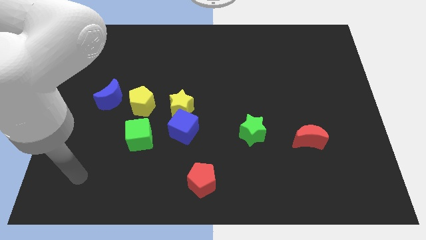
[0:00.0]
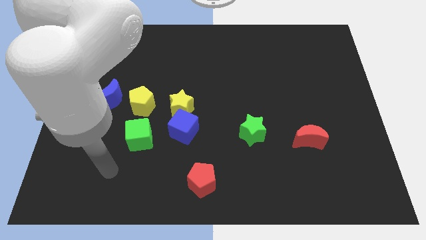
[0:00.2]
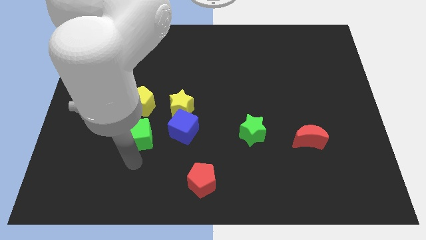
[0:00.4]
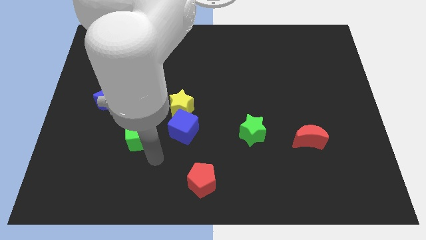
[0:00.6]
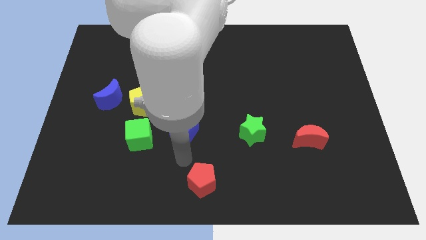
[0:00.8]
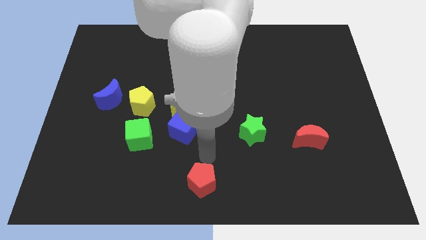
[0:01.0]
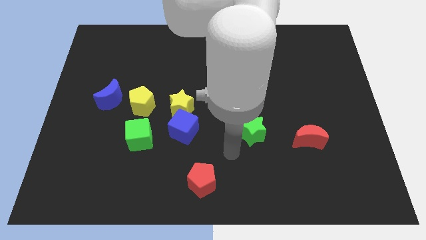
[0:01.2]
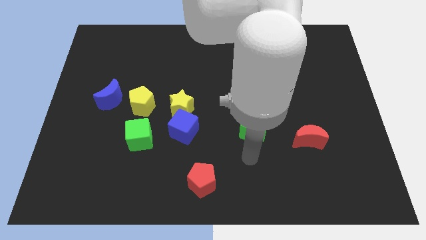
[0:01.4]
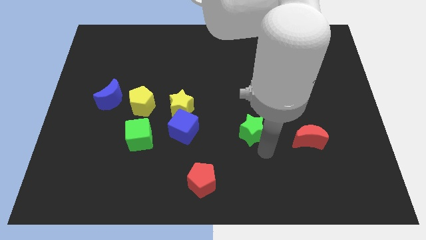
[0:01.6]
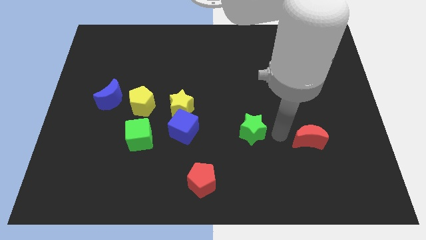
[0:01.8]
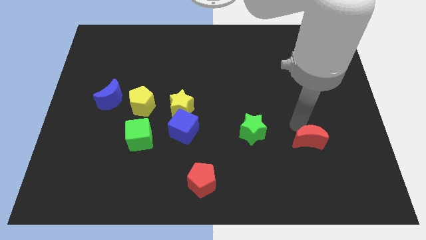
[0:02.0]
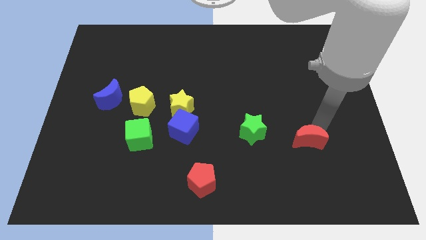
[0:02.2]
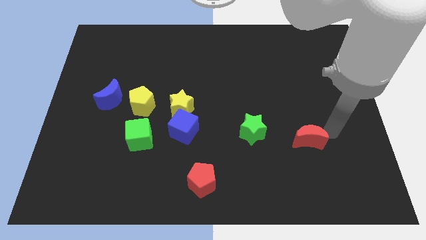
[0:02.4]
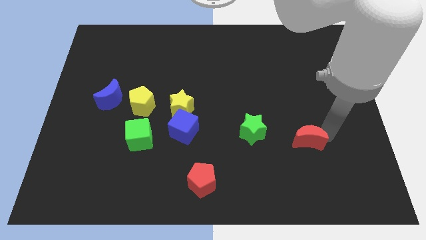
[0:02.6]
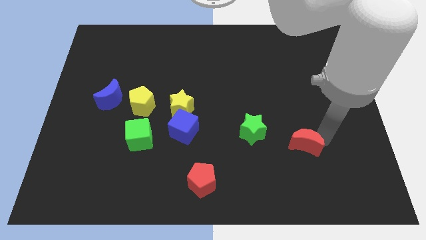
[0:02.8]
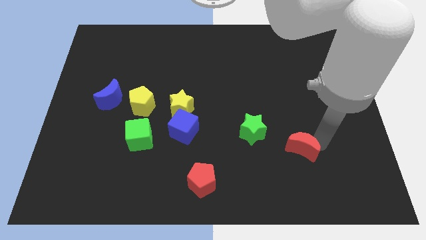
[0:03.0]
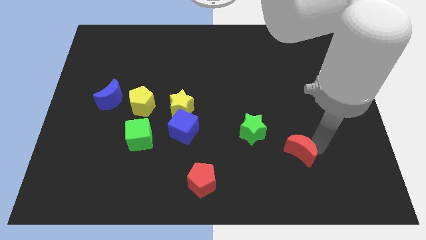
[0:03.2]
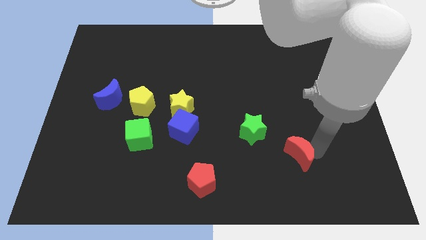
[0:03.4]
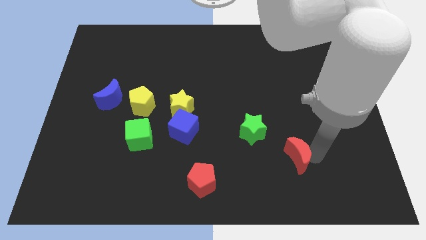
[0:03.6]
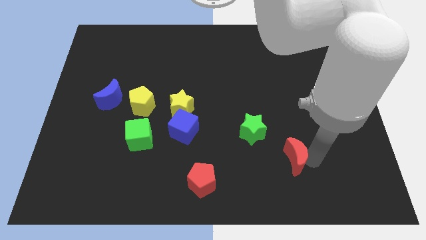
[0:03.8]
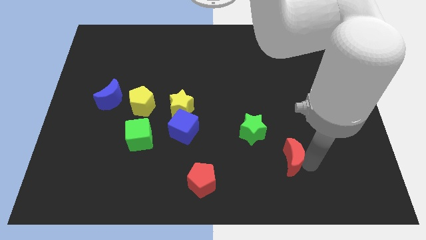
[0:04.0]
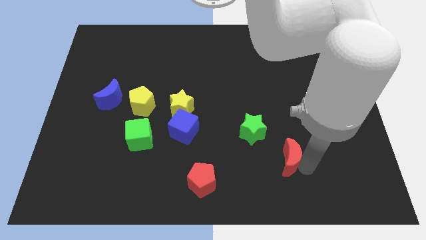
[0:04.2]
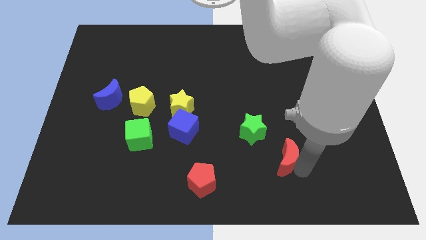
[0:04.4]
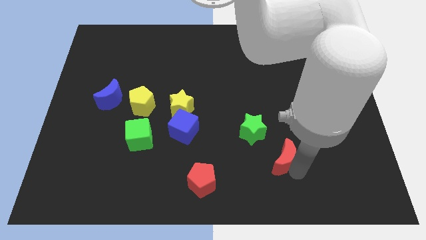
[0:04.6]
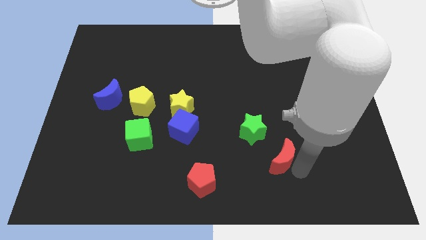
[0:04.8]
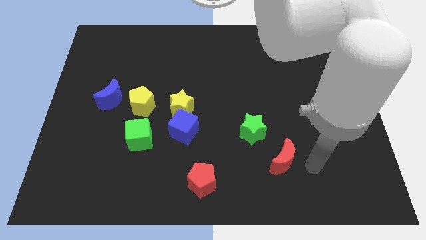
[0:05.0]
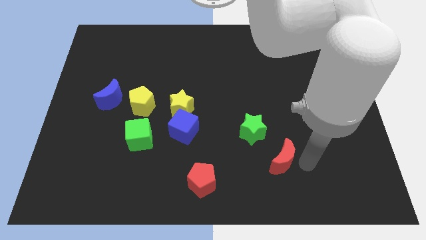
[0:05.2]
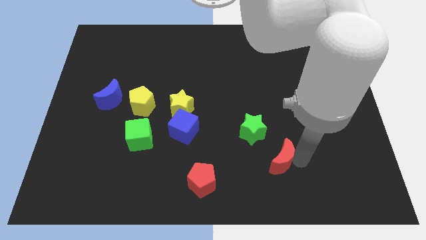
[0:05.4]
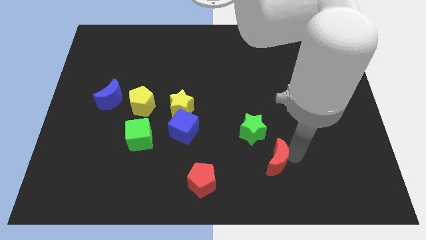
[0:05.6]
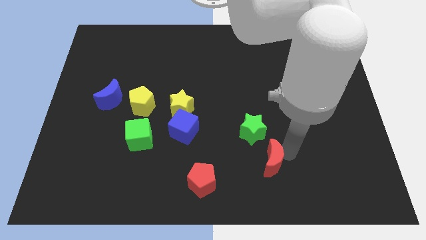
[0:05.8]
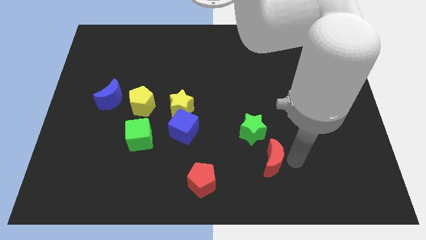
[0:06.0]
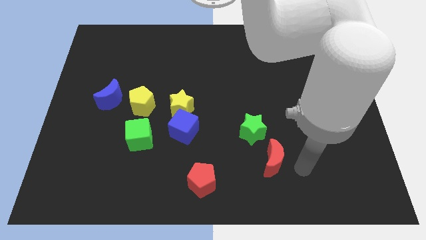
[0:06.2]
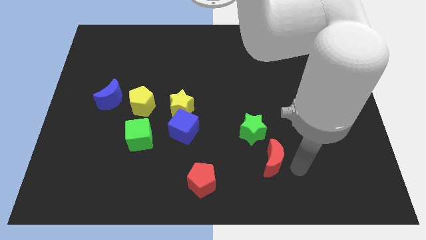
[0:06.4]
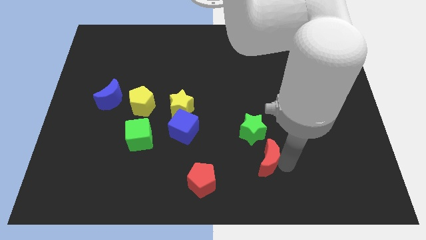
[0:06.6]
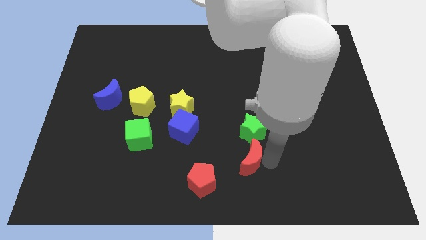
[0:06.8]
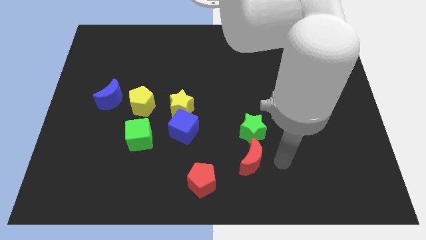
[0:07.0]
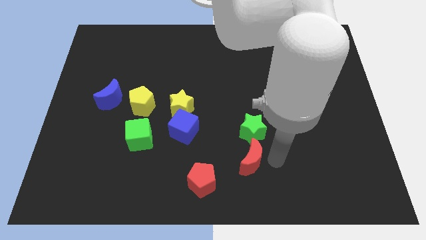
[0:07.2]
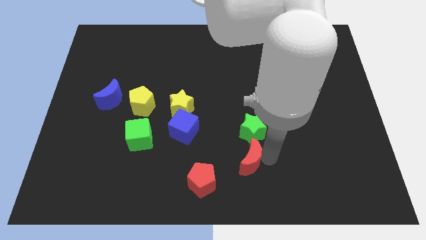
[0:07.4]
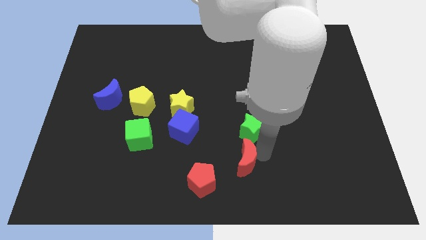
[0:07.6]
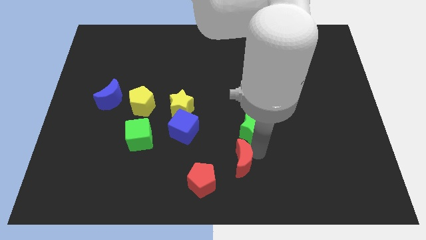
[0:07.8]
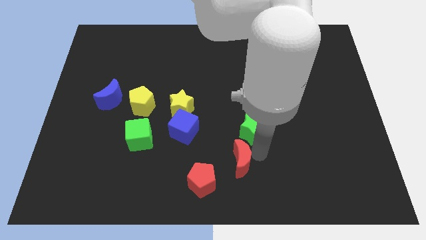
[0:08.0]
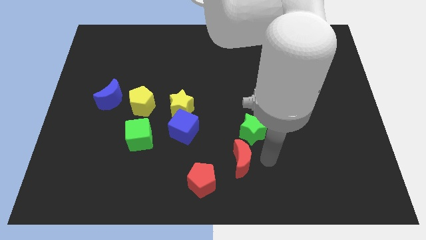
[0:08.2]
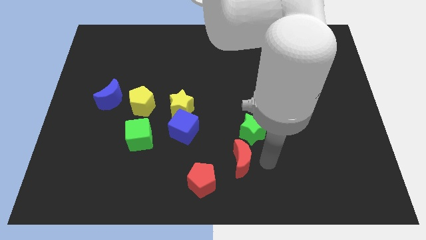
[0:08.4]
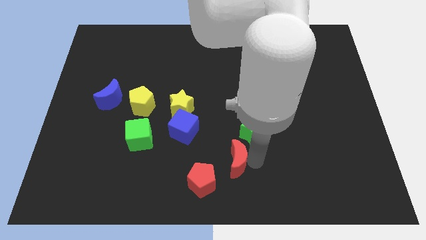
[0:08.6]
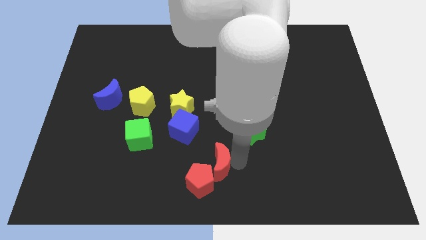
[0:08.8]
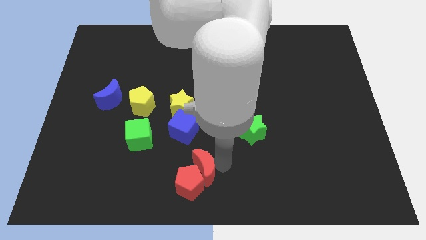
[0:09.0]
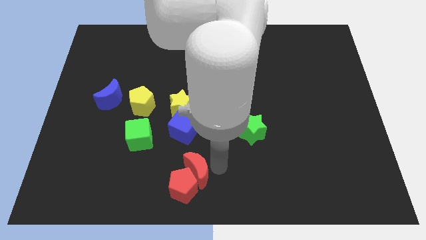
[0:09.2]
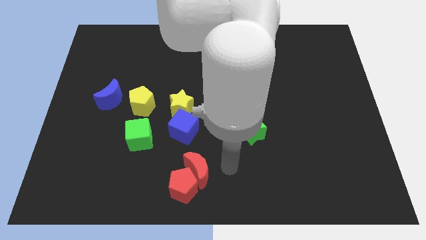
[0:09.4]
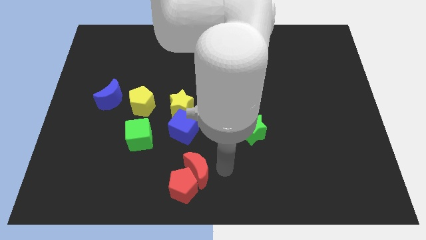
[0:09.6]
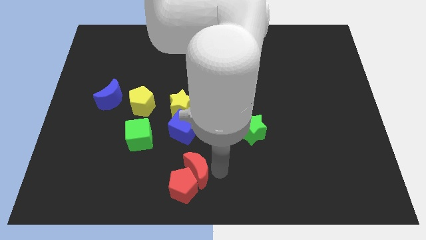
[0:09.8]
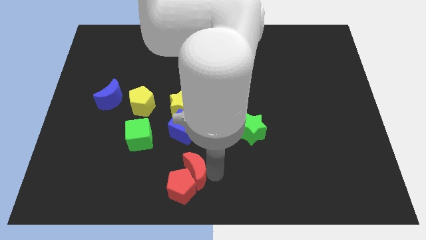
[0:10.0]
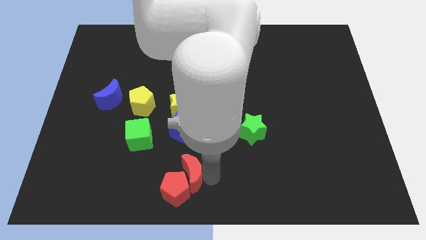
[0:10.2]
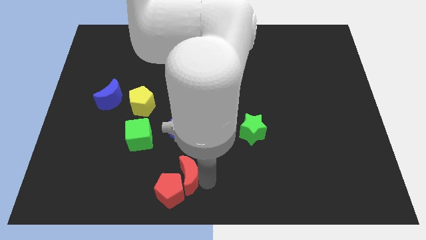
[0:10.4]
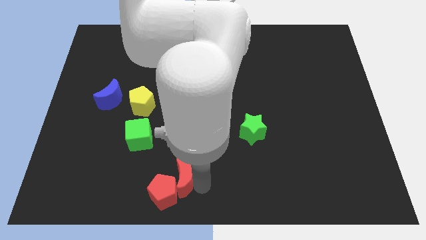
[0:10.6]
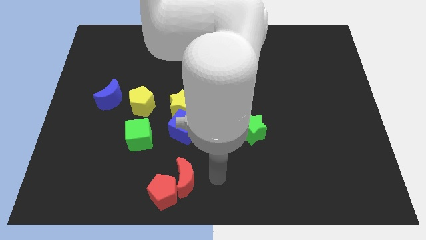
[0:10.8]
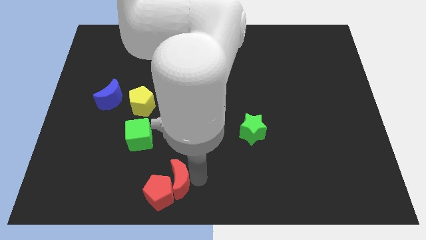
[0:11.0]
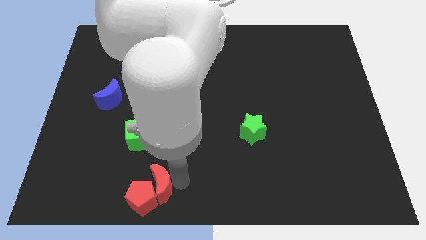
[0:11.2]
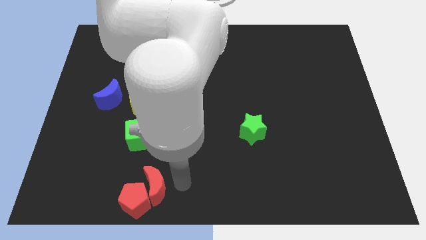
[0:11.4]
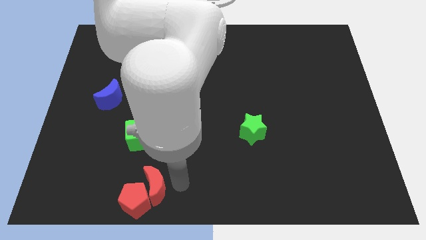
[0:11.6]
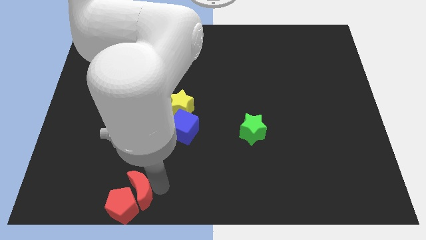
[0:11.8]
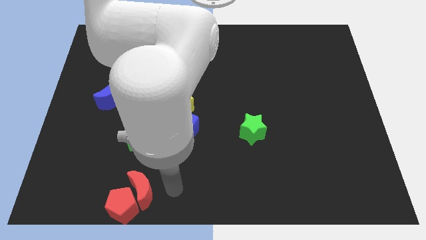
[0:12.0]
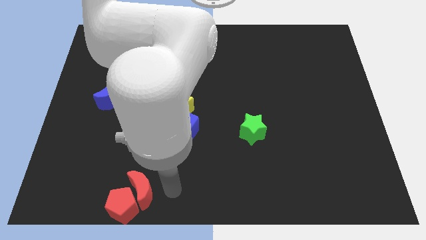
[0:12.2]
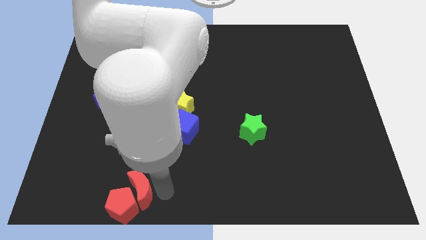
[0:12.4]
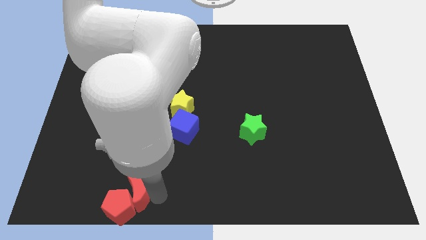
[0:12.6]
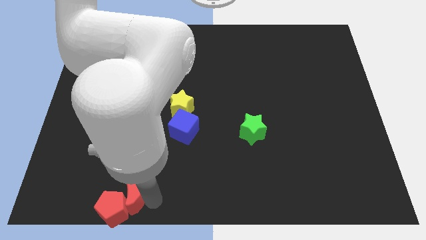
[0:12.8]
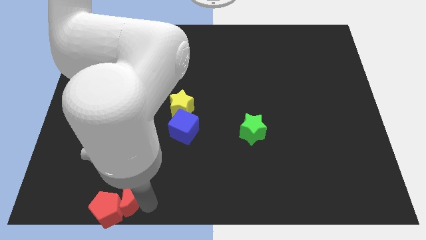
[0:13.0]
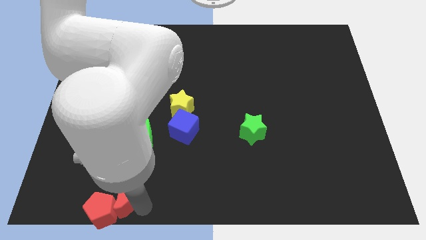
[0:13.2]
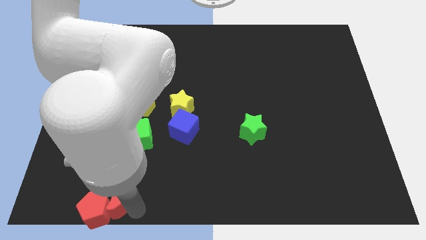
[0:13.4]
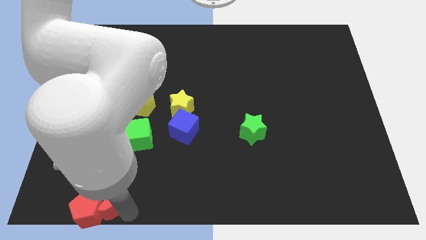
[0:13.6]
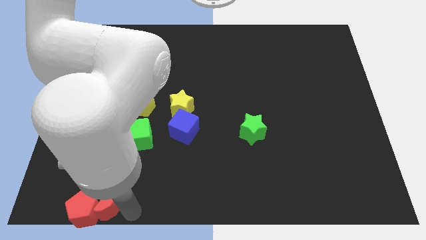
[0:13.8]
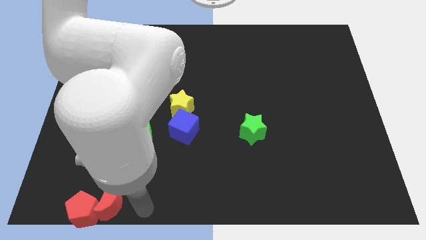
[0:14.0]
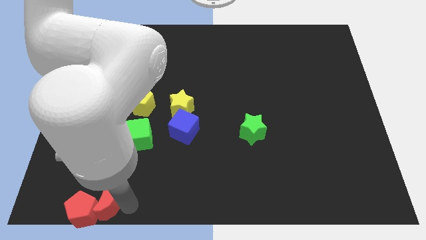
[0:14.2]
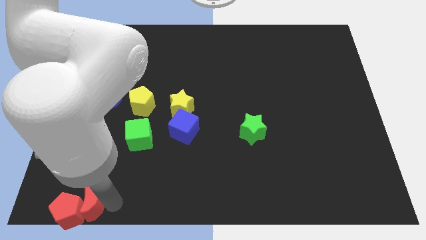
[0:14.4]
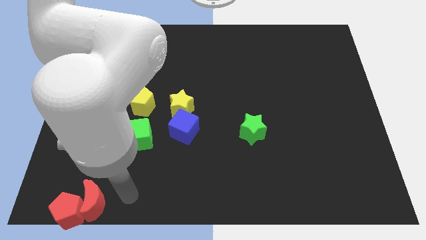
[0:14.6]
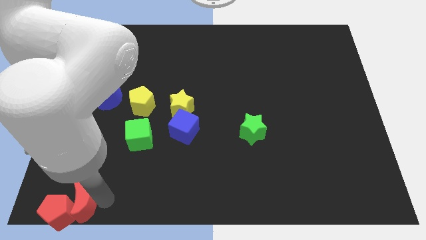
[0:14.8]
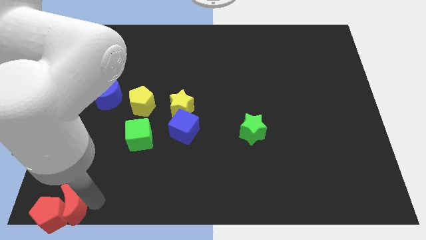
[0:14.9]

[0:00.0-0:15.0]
move the red moon to the bottom left corner
